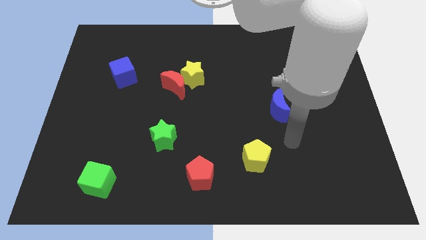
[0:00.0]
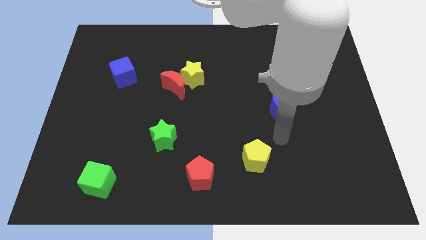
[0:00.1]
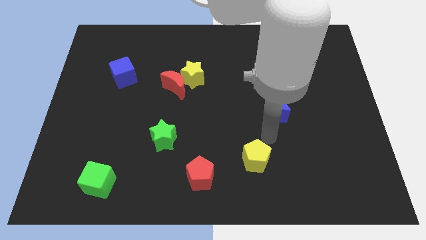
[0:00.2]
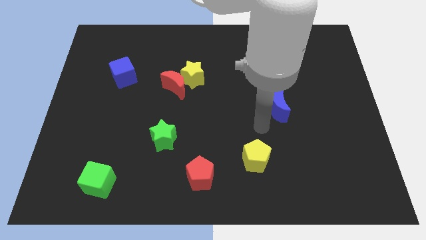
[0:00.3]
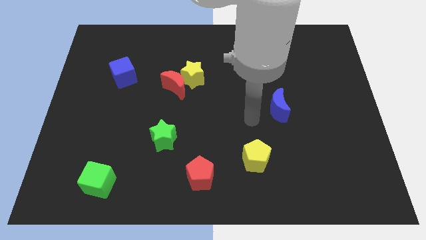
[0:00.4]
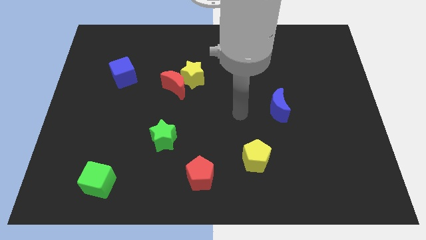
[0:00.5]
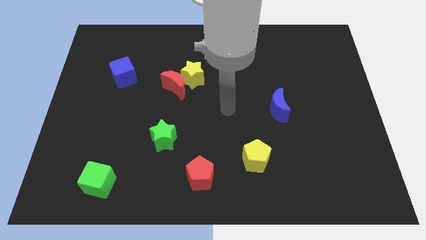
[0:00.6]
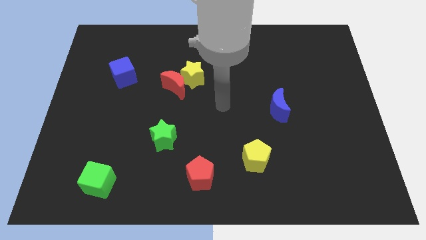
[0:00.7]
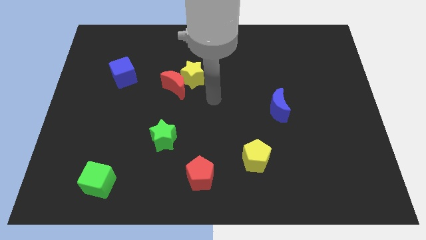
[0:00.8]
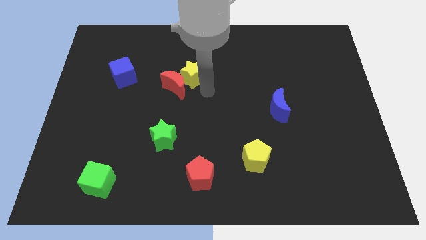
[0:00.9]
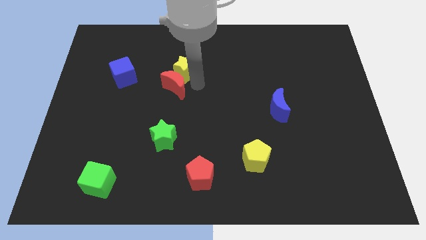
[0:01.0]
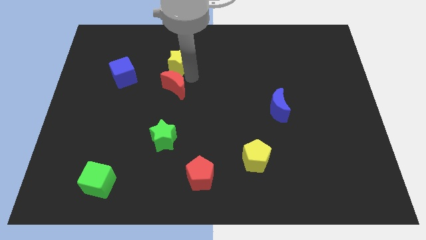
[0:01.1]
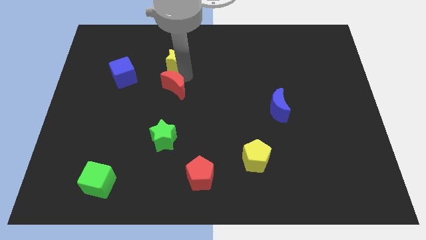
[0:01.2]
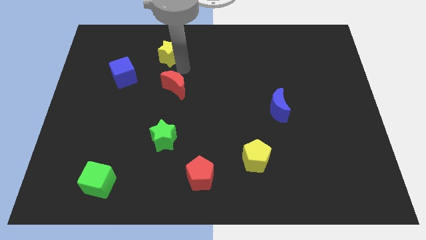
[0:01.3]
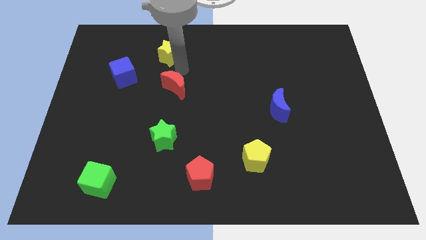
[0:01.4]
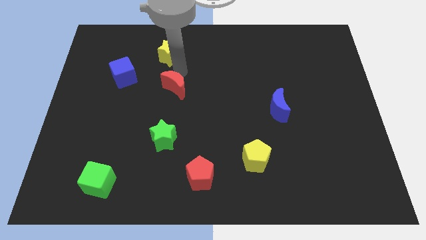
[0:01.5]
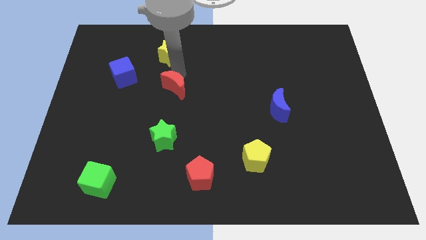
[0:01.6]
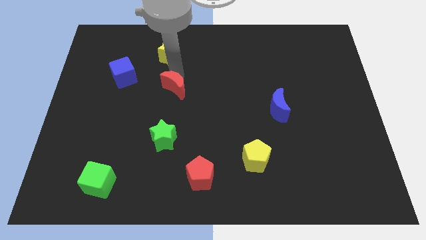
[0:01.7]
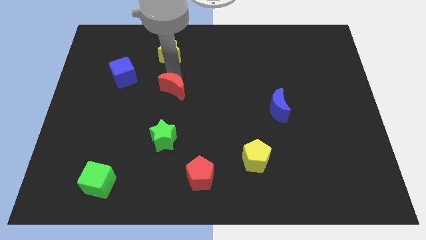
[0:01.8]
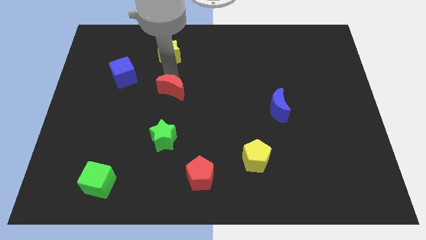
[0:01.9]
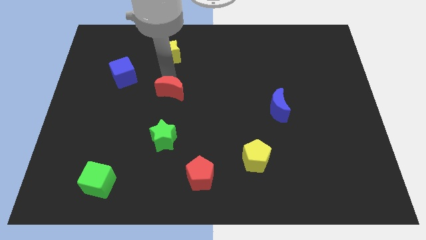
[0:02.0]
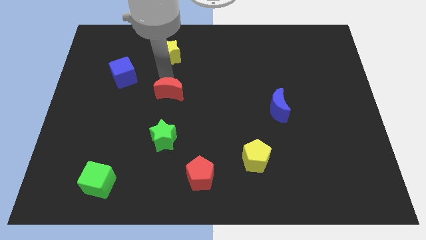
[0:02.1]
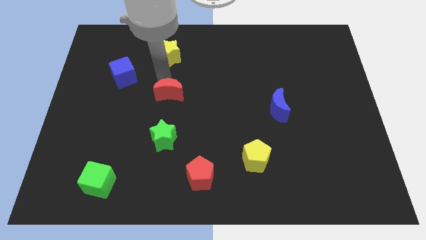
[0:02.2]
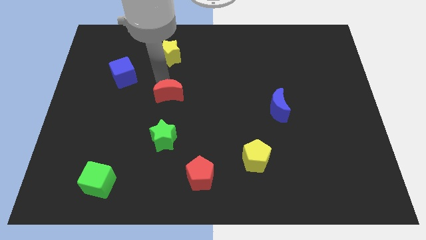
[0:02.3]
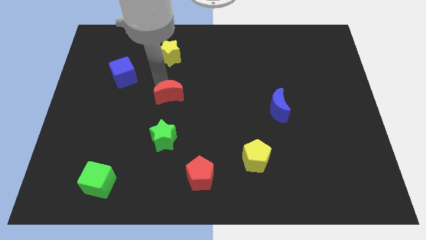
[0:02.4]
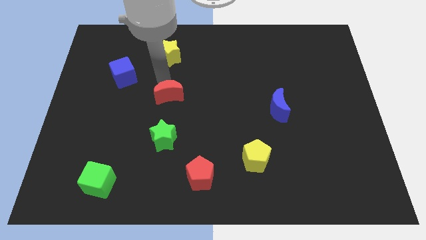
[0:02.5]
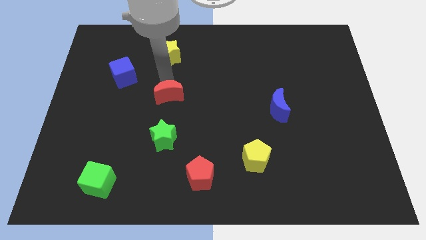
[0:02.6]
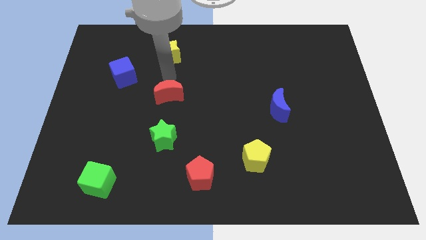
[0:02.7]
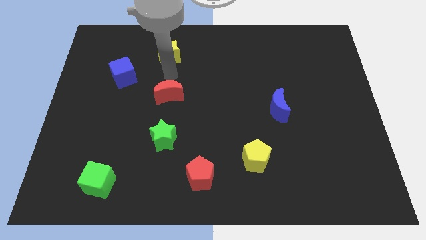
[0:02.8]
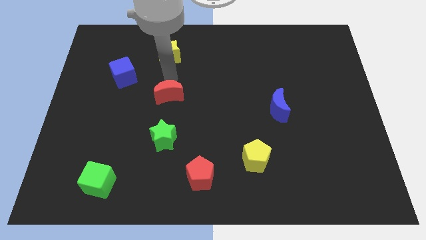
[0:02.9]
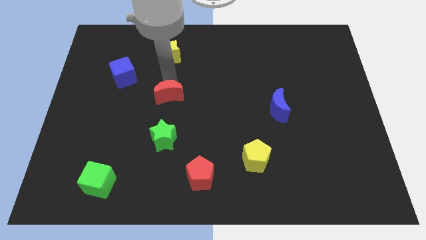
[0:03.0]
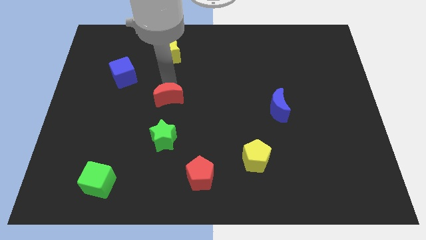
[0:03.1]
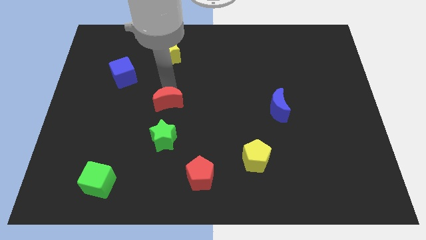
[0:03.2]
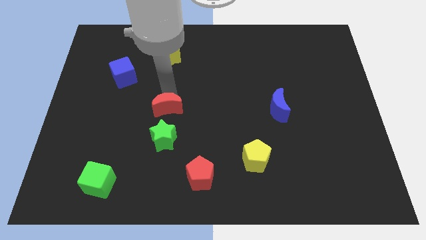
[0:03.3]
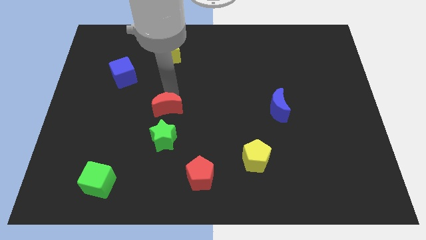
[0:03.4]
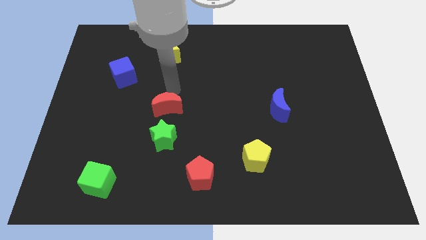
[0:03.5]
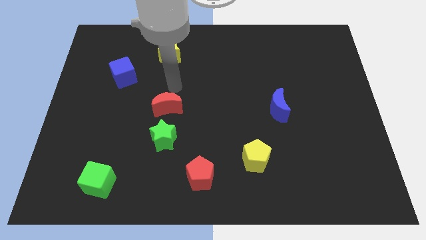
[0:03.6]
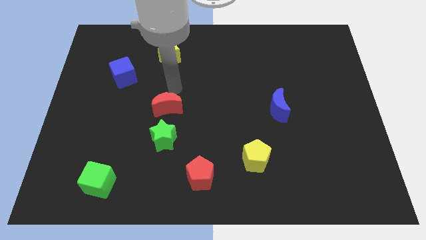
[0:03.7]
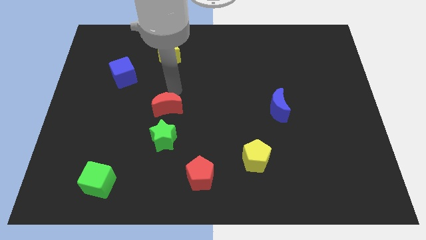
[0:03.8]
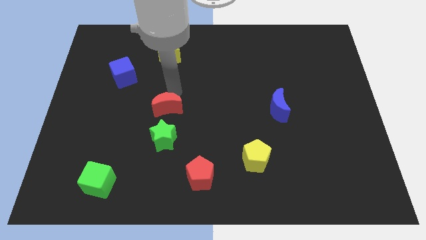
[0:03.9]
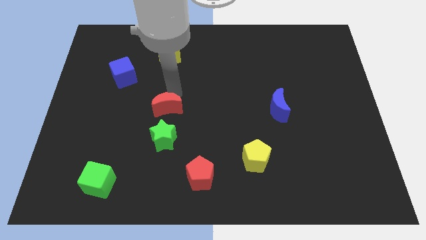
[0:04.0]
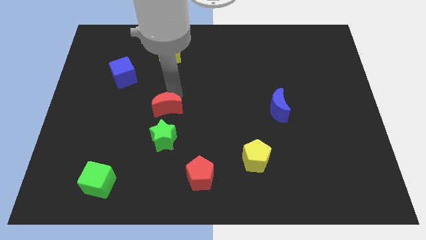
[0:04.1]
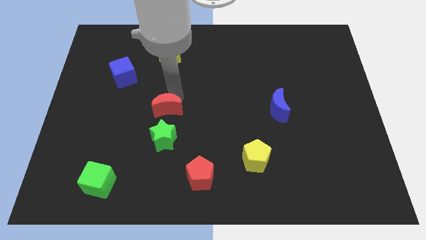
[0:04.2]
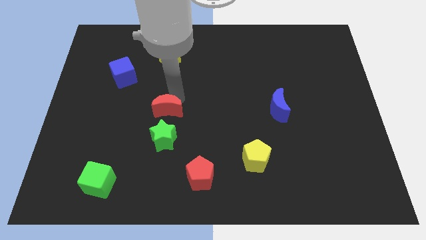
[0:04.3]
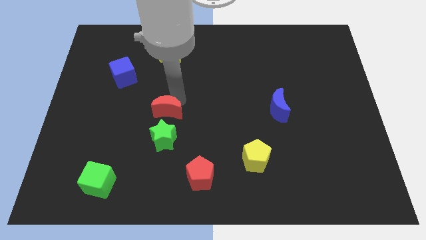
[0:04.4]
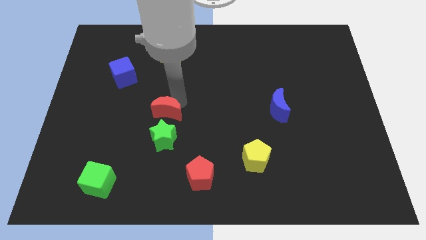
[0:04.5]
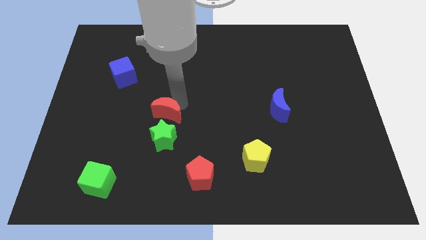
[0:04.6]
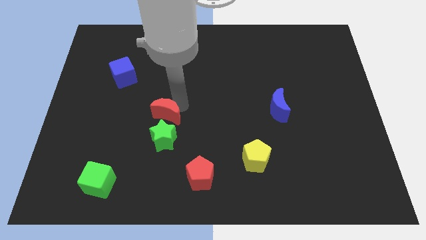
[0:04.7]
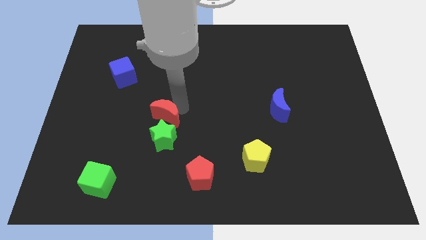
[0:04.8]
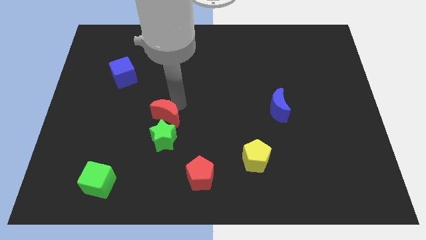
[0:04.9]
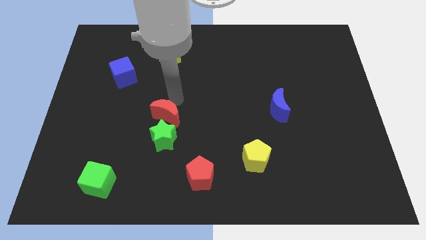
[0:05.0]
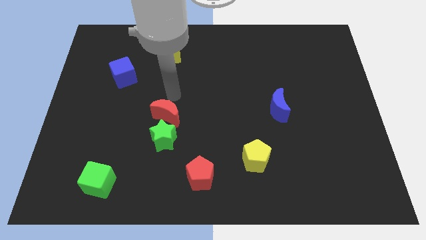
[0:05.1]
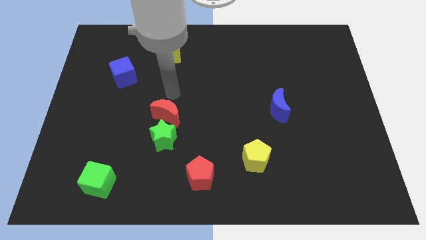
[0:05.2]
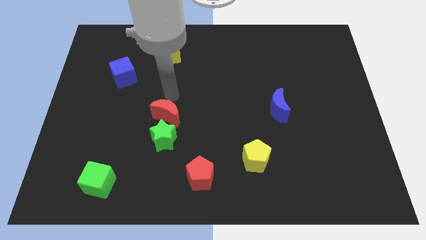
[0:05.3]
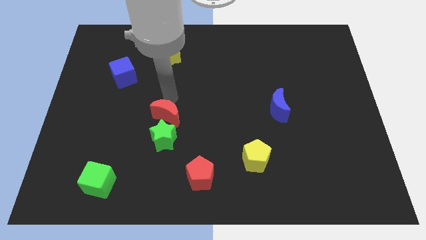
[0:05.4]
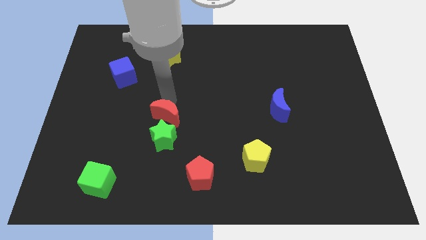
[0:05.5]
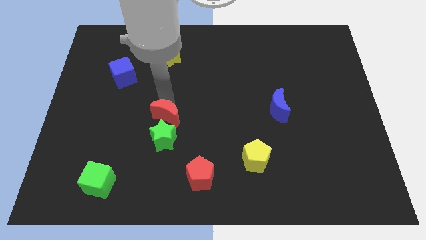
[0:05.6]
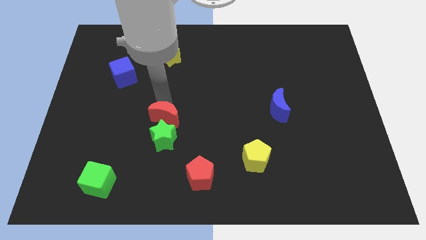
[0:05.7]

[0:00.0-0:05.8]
put the red moon to the green star

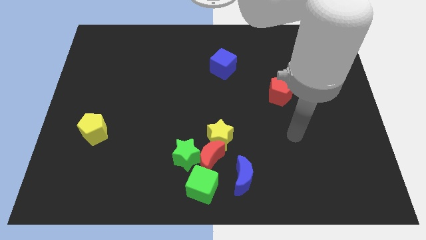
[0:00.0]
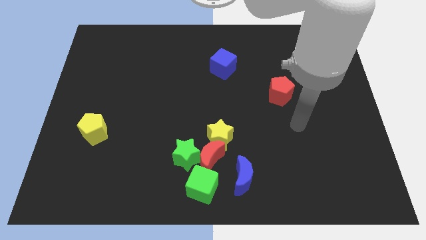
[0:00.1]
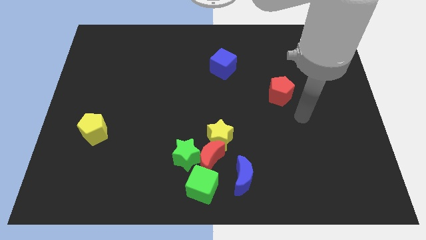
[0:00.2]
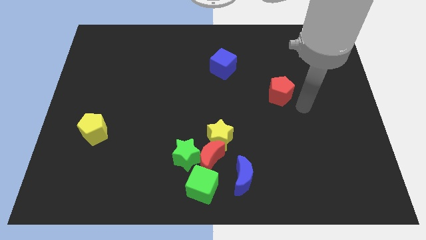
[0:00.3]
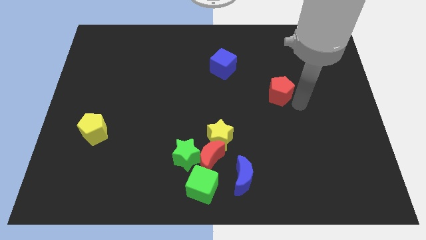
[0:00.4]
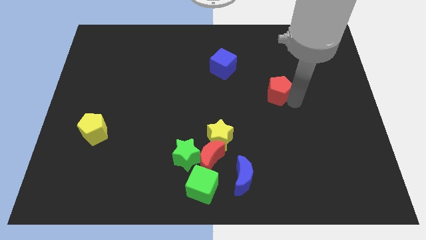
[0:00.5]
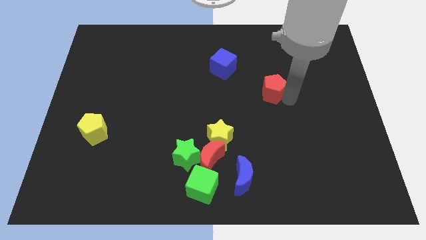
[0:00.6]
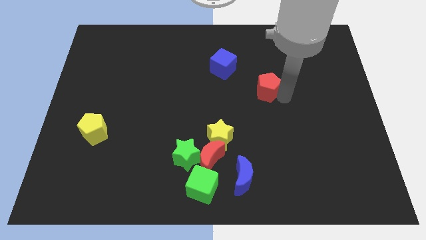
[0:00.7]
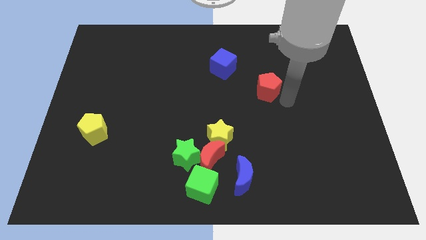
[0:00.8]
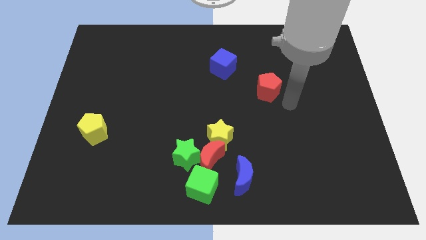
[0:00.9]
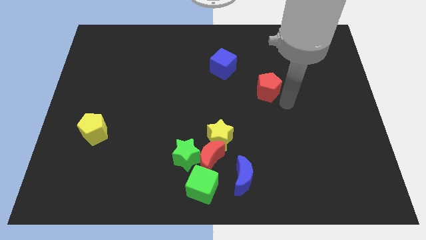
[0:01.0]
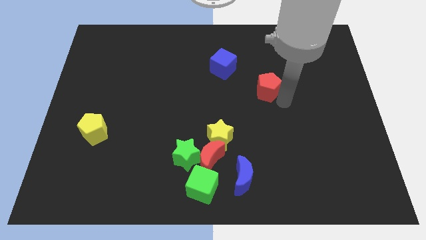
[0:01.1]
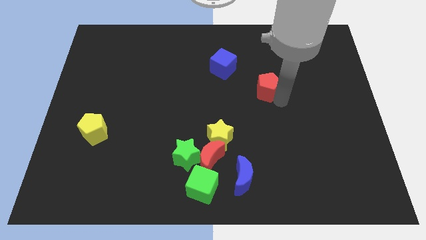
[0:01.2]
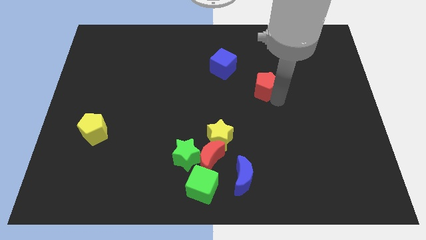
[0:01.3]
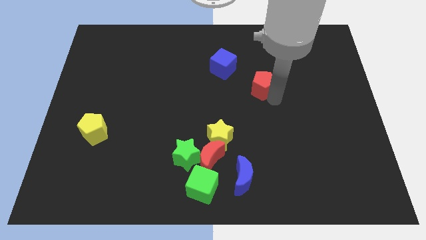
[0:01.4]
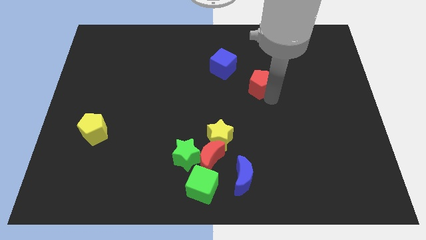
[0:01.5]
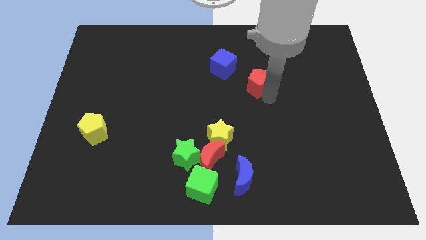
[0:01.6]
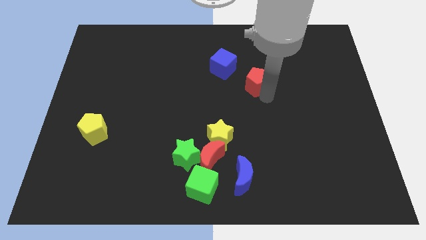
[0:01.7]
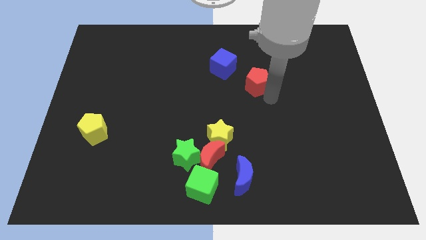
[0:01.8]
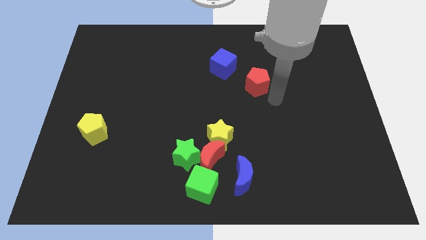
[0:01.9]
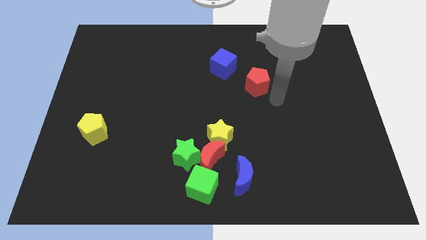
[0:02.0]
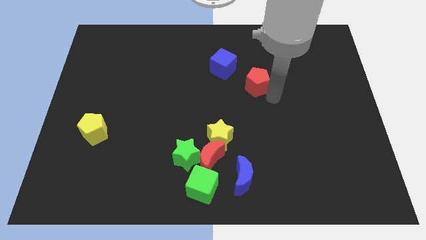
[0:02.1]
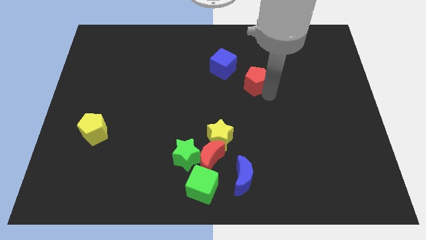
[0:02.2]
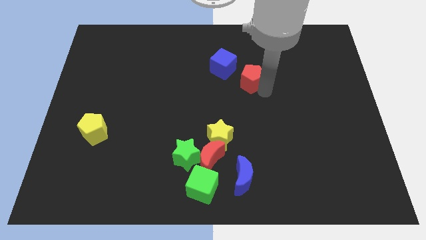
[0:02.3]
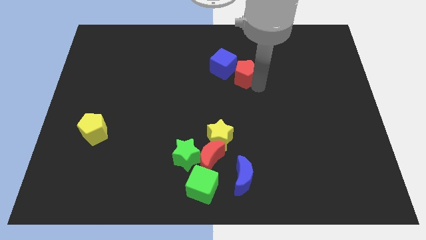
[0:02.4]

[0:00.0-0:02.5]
slide the red pentagon to the blue cube
